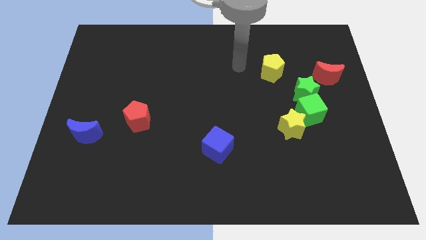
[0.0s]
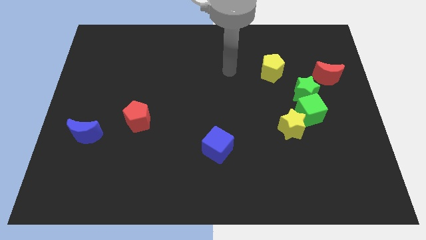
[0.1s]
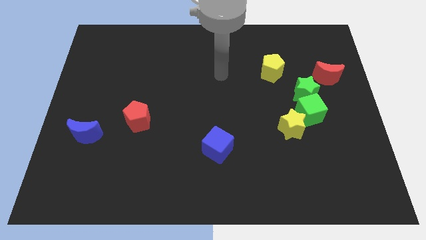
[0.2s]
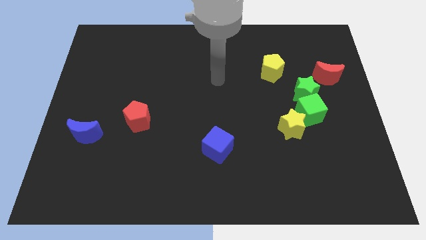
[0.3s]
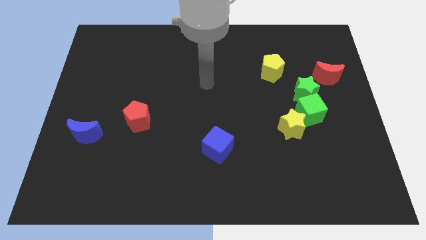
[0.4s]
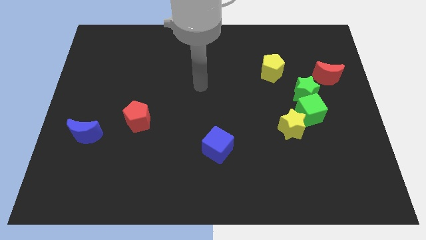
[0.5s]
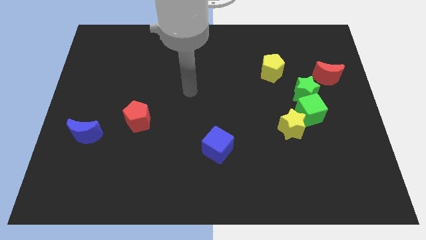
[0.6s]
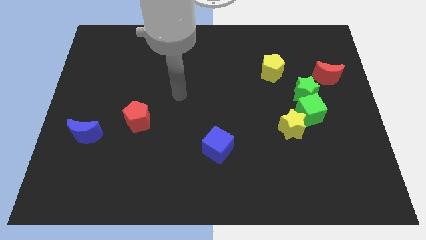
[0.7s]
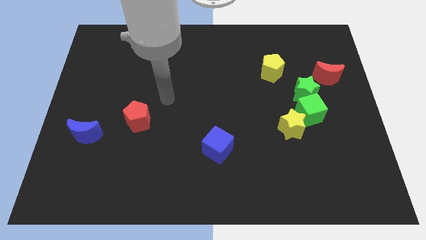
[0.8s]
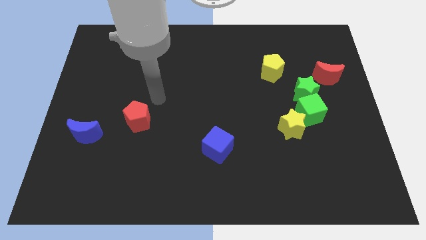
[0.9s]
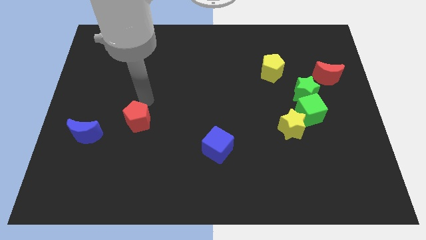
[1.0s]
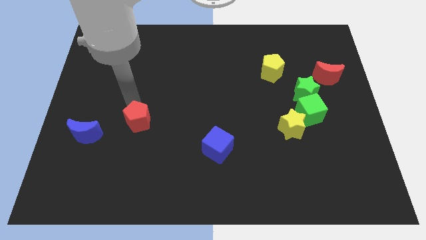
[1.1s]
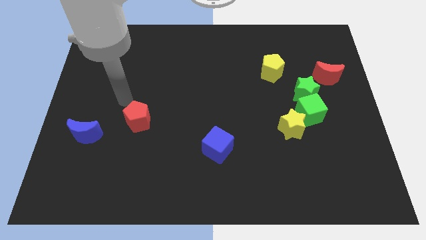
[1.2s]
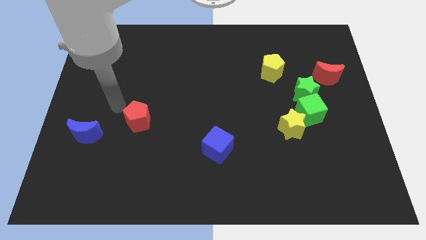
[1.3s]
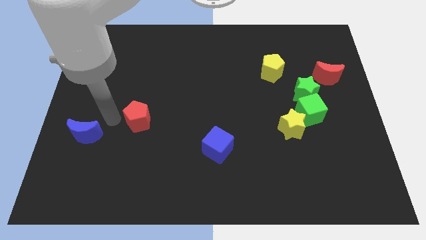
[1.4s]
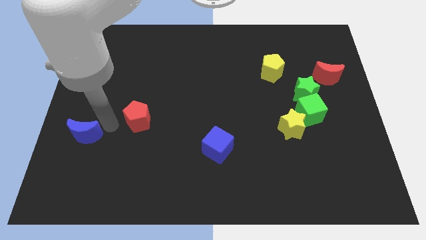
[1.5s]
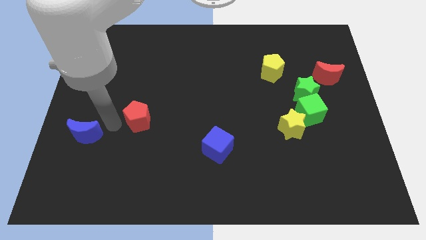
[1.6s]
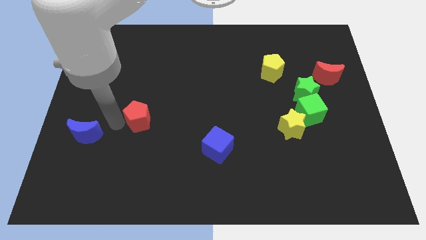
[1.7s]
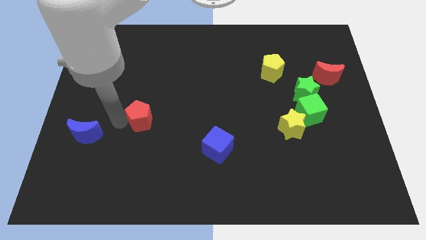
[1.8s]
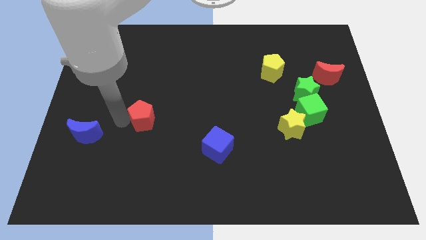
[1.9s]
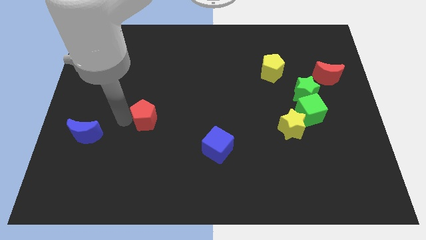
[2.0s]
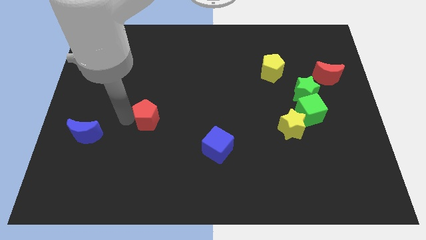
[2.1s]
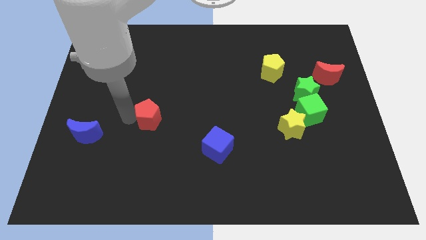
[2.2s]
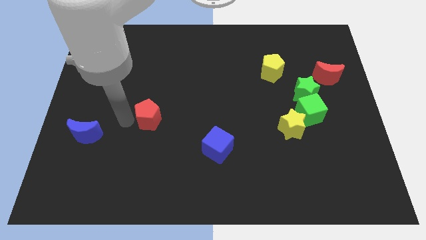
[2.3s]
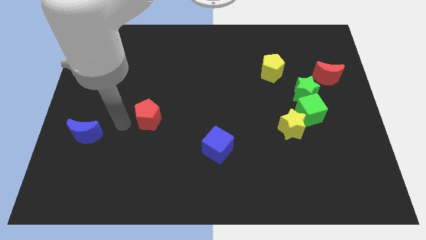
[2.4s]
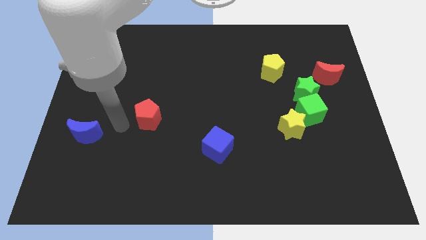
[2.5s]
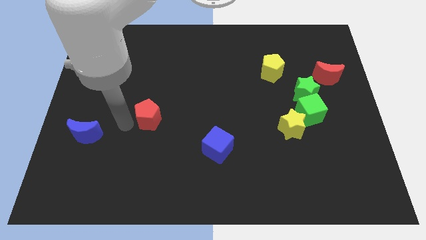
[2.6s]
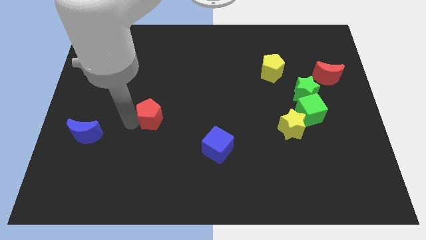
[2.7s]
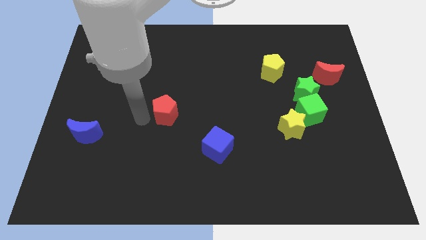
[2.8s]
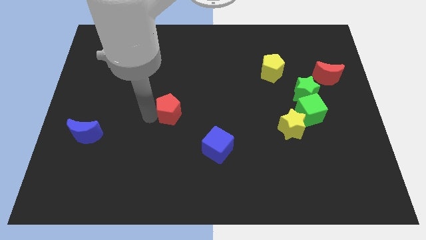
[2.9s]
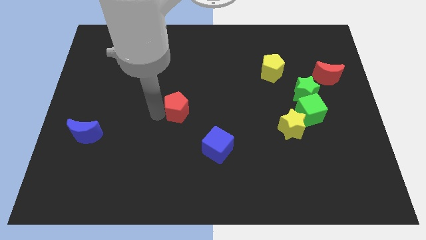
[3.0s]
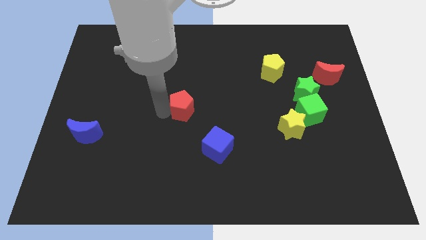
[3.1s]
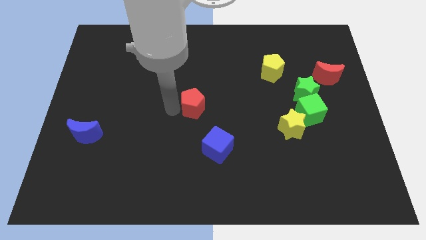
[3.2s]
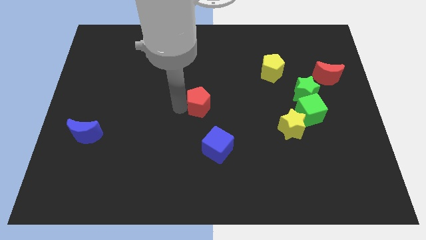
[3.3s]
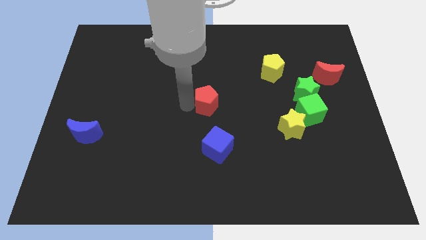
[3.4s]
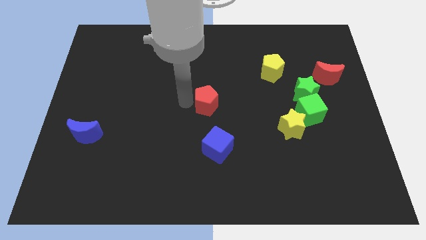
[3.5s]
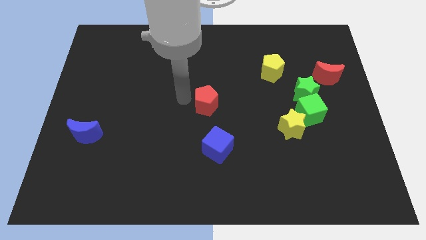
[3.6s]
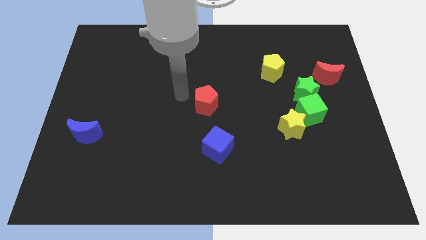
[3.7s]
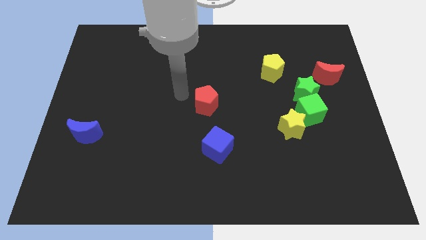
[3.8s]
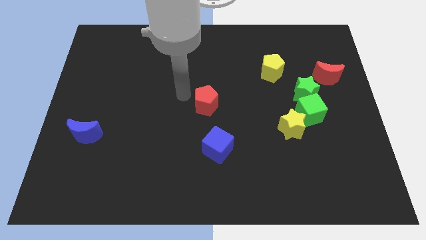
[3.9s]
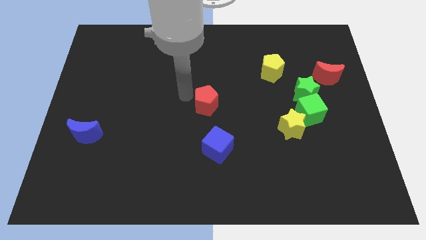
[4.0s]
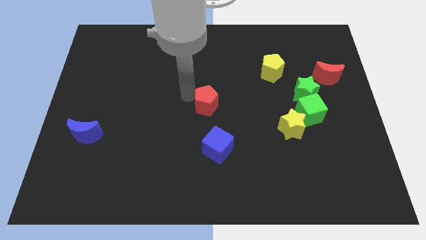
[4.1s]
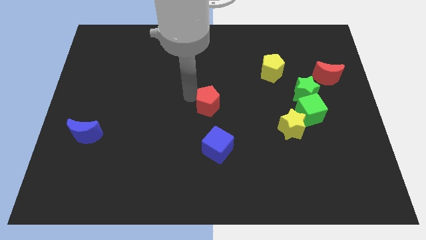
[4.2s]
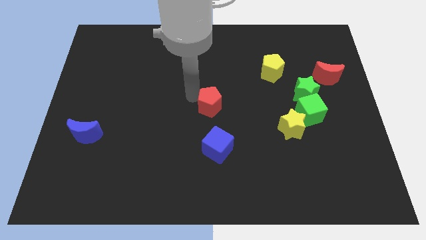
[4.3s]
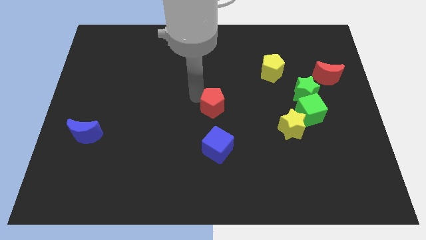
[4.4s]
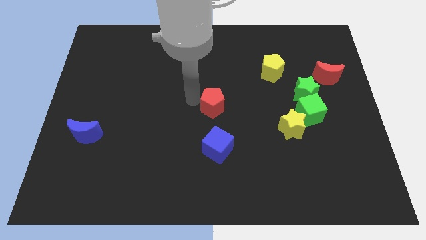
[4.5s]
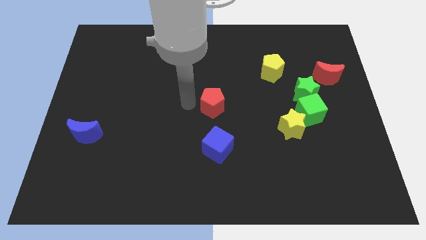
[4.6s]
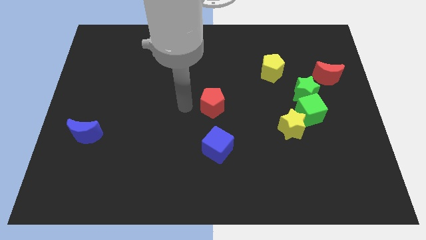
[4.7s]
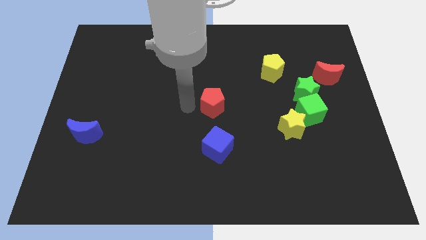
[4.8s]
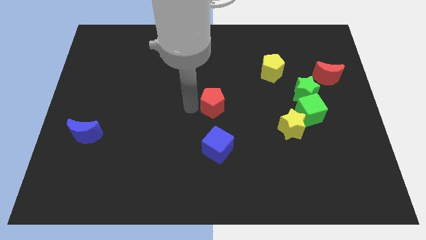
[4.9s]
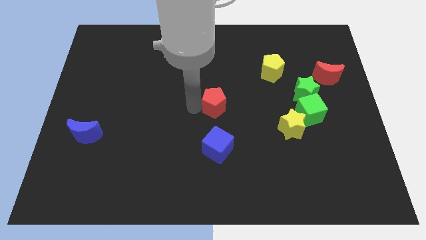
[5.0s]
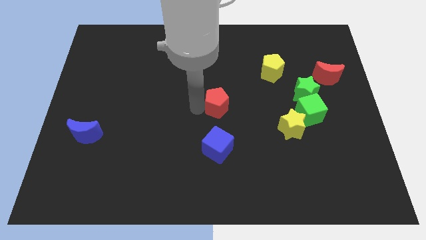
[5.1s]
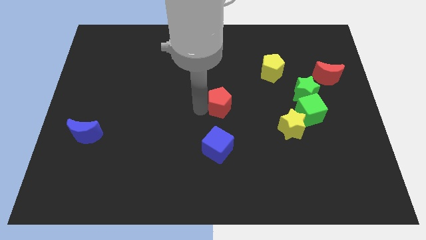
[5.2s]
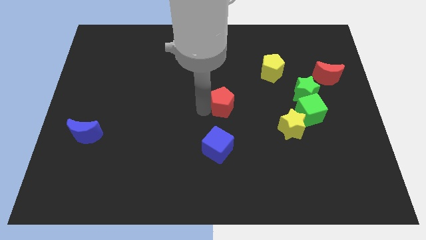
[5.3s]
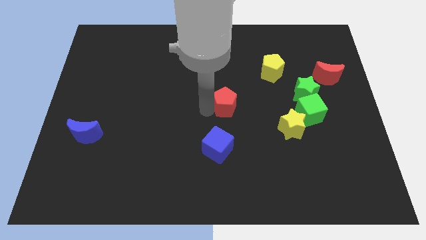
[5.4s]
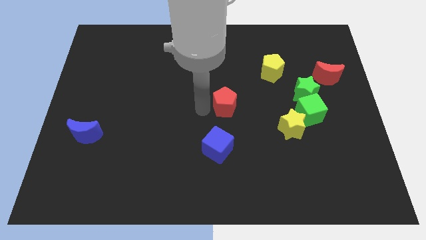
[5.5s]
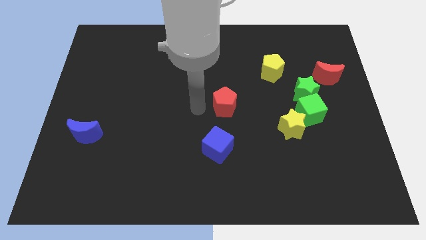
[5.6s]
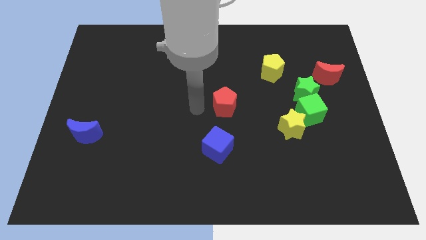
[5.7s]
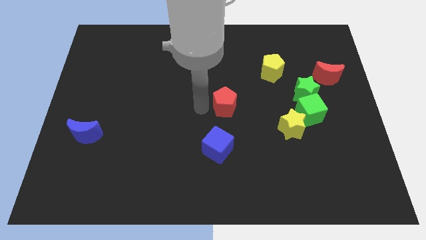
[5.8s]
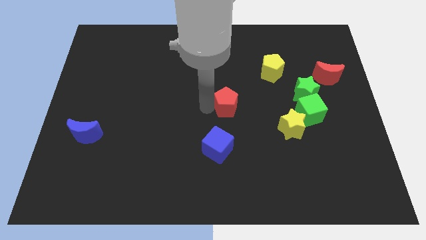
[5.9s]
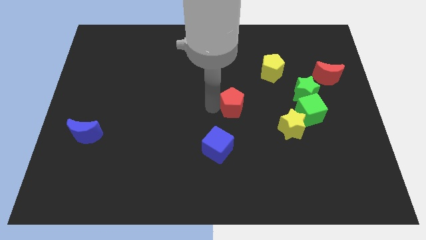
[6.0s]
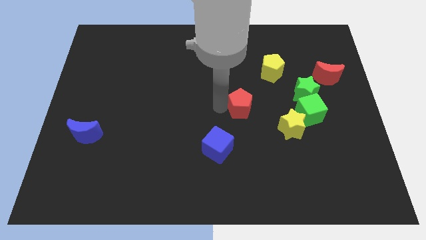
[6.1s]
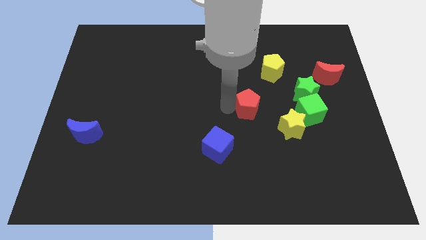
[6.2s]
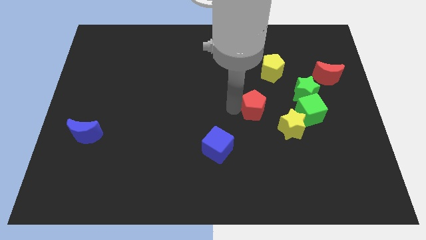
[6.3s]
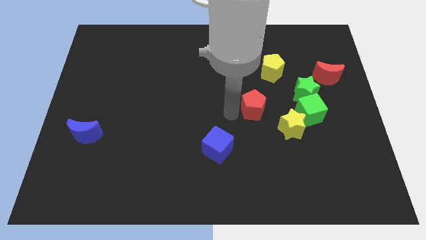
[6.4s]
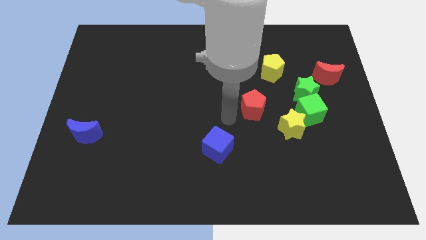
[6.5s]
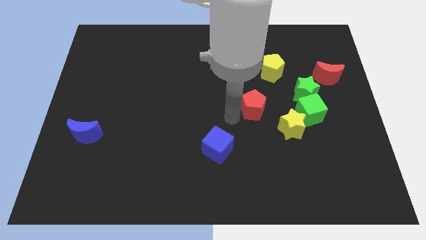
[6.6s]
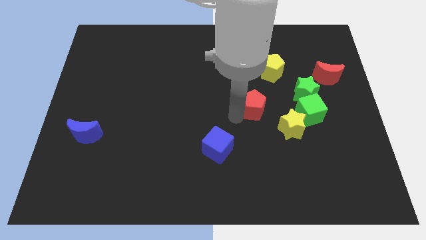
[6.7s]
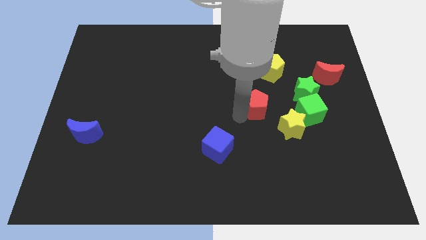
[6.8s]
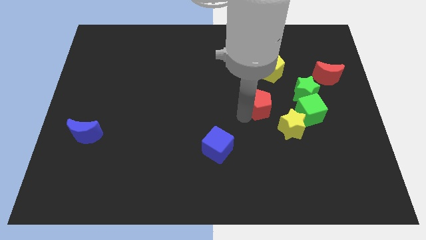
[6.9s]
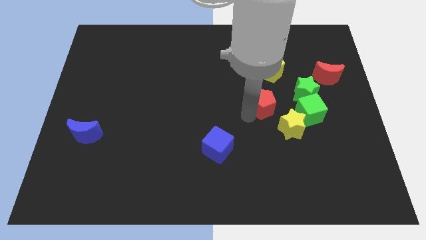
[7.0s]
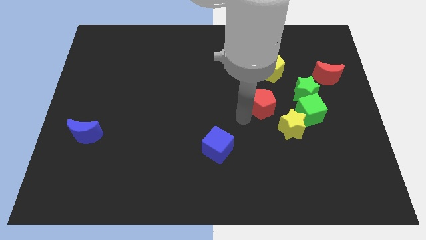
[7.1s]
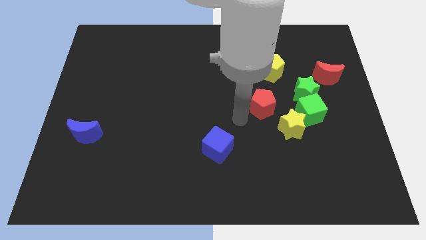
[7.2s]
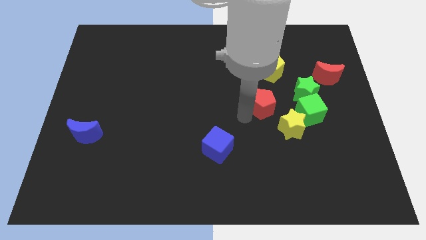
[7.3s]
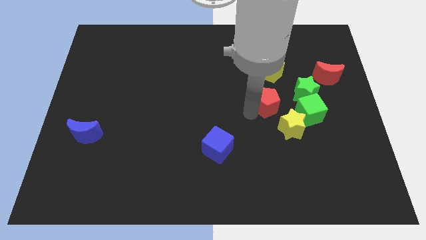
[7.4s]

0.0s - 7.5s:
move the red pentagon above the yellow star

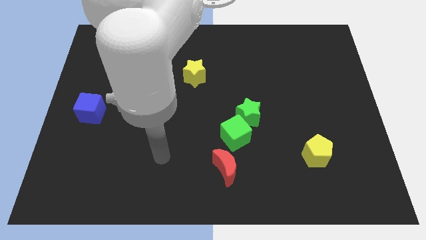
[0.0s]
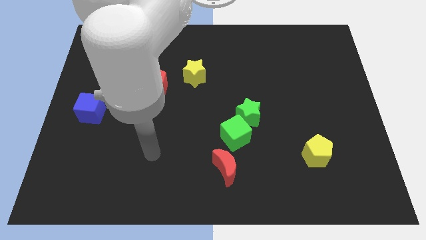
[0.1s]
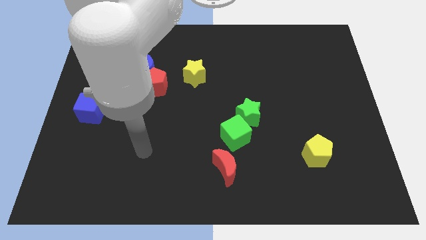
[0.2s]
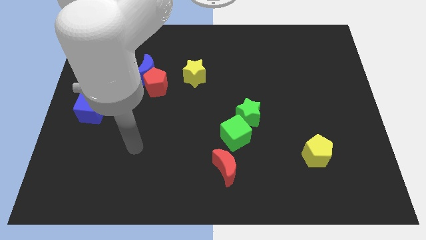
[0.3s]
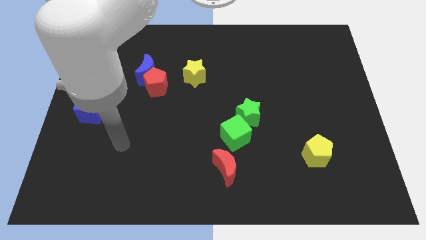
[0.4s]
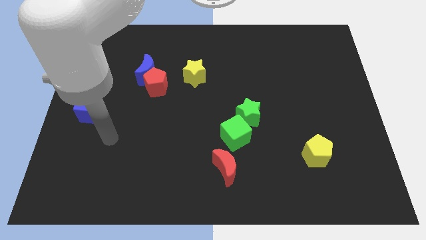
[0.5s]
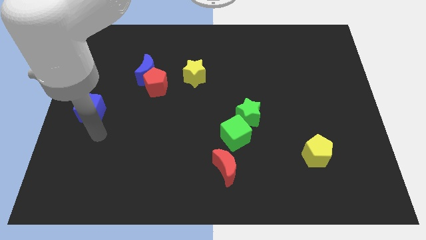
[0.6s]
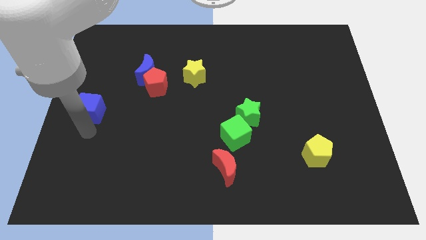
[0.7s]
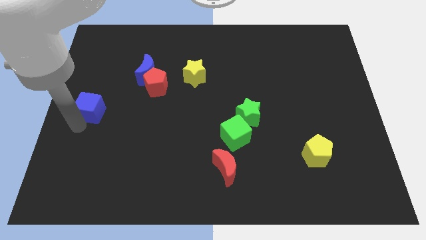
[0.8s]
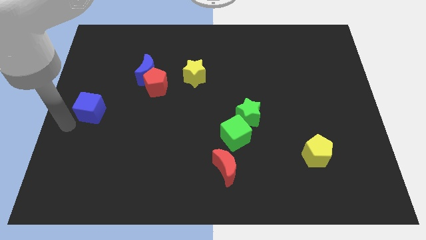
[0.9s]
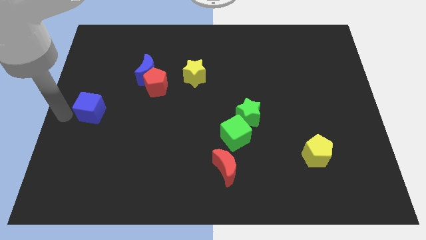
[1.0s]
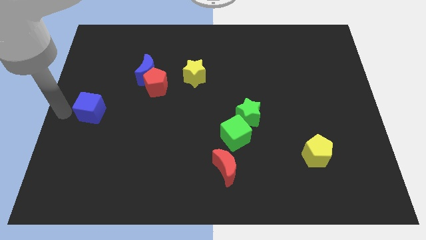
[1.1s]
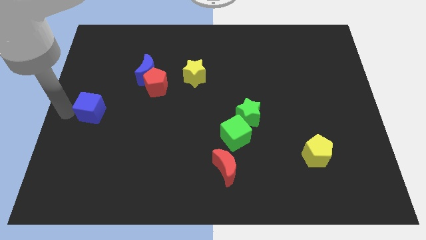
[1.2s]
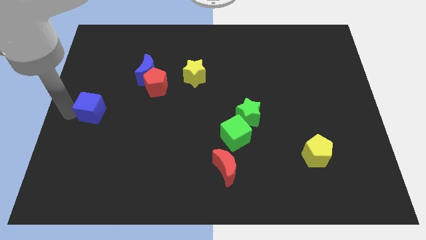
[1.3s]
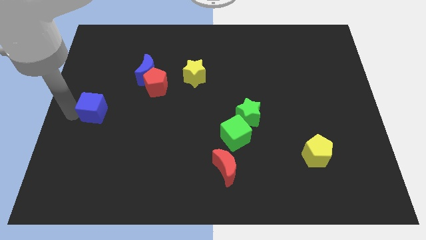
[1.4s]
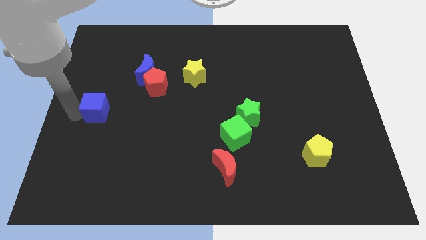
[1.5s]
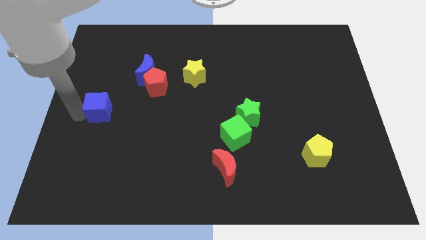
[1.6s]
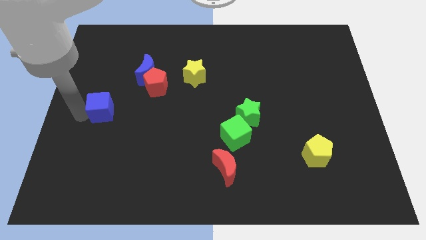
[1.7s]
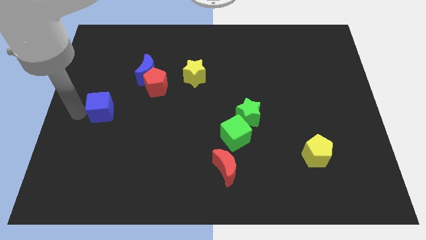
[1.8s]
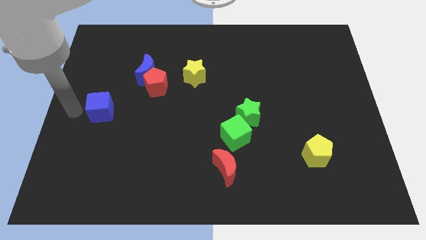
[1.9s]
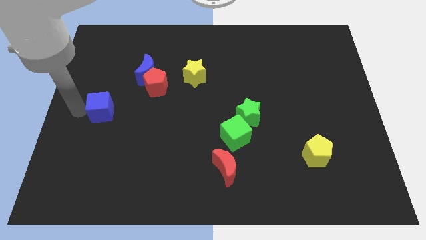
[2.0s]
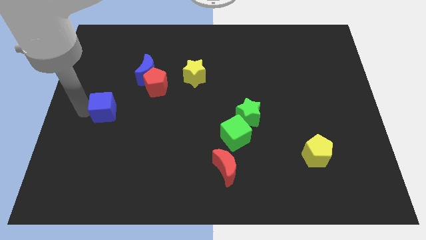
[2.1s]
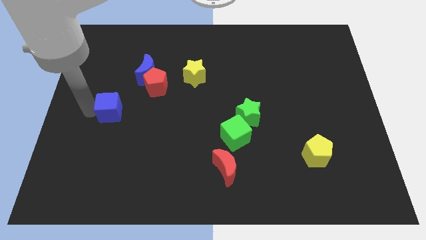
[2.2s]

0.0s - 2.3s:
put the blue cube to the bottom left of the red pentagon
